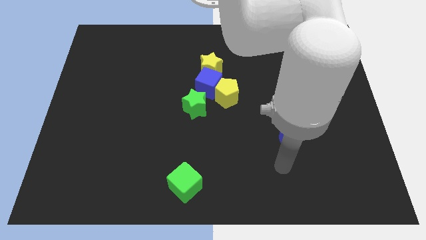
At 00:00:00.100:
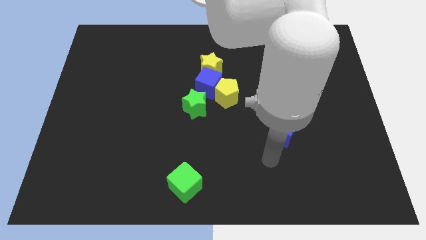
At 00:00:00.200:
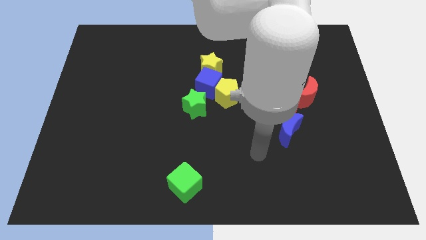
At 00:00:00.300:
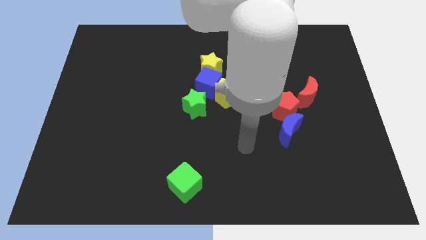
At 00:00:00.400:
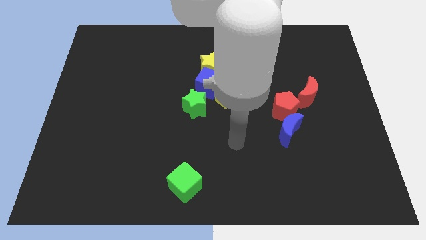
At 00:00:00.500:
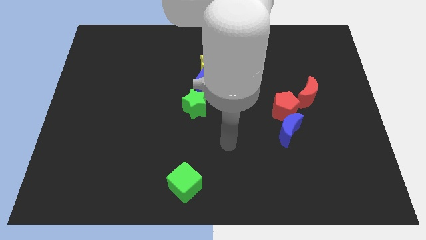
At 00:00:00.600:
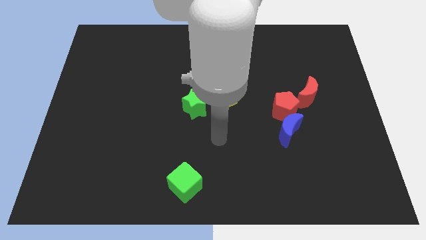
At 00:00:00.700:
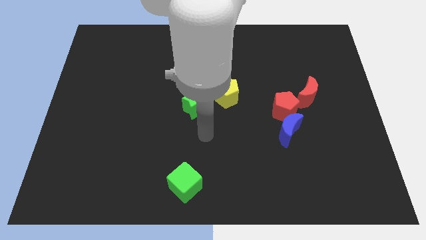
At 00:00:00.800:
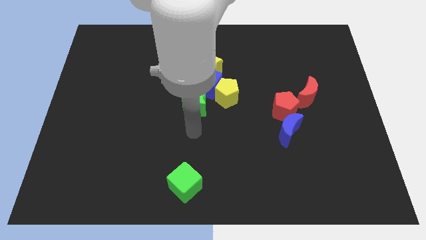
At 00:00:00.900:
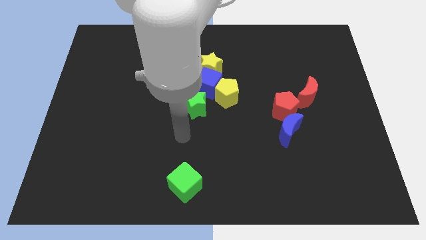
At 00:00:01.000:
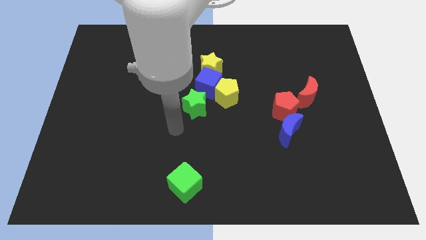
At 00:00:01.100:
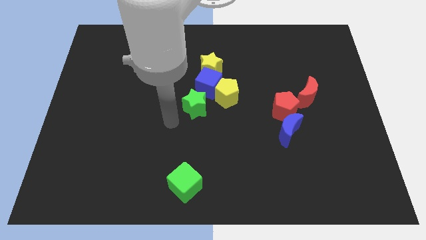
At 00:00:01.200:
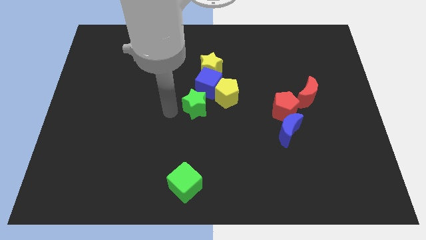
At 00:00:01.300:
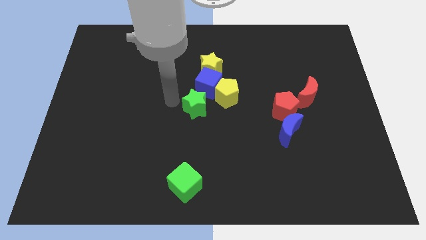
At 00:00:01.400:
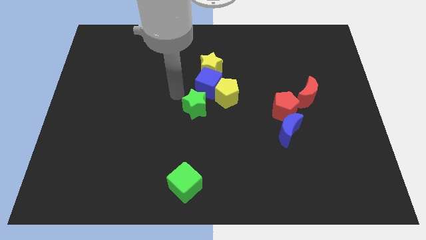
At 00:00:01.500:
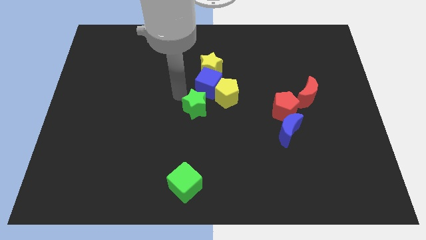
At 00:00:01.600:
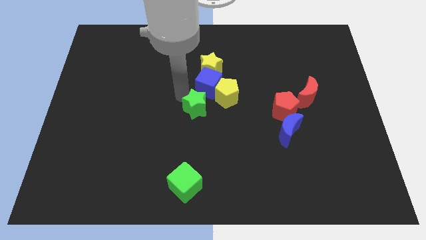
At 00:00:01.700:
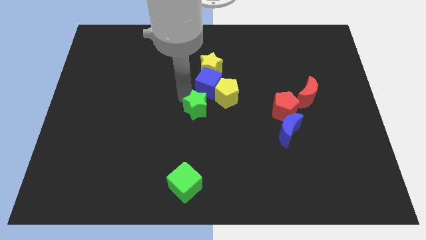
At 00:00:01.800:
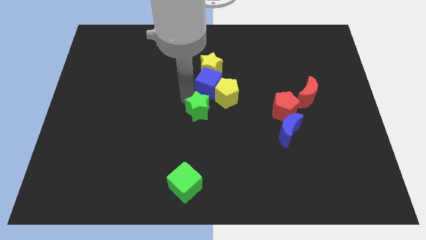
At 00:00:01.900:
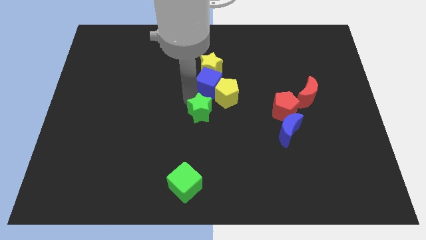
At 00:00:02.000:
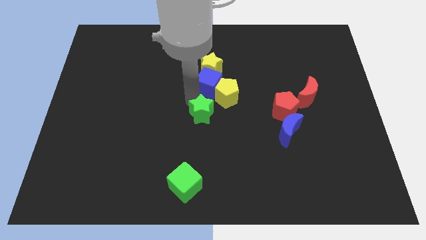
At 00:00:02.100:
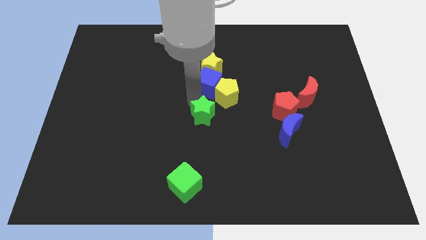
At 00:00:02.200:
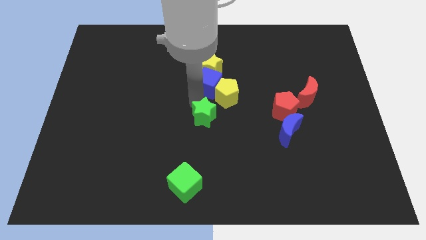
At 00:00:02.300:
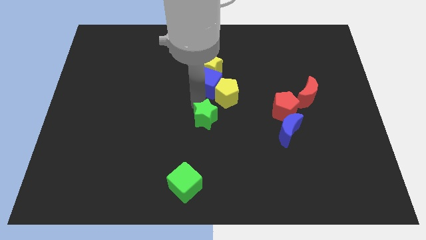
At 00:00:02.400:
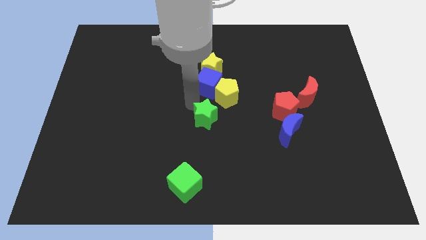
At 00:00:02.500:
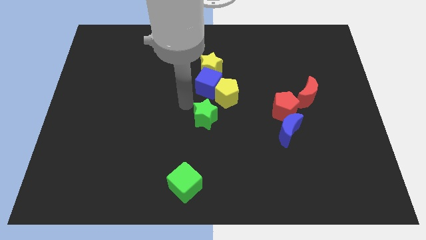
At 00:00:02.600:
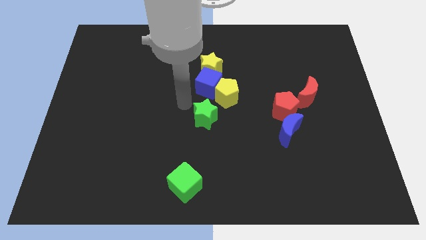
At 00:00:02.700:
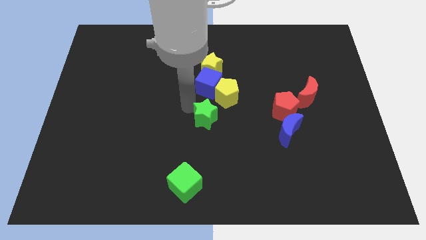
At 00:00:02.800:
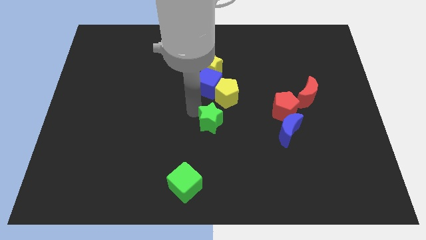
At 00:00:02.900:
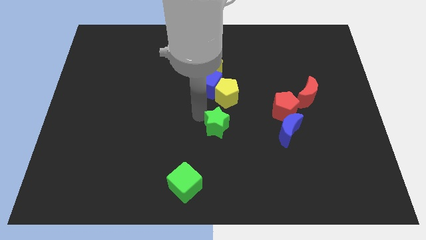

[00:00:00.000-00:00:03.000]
slightly move the green star down and right diagonally

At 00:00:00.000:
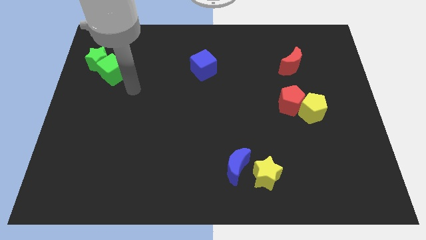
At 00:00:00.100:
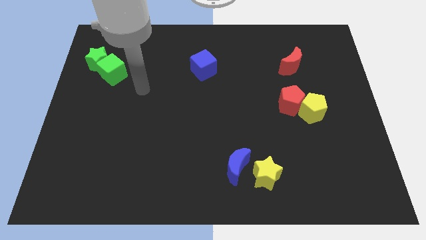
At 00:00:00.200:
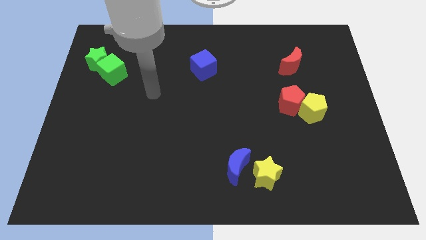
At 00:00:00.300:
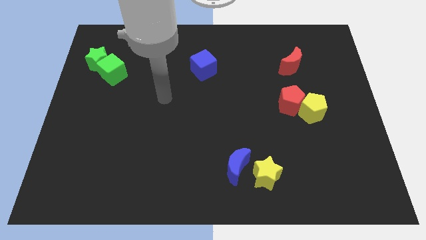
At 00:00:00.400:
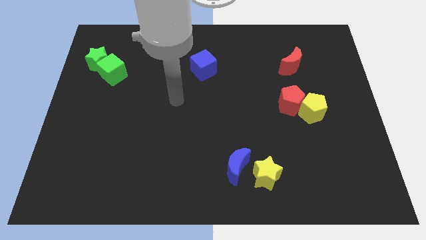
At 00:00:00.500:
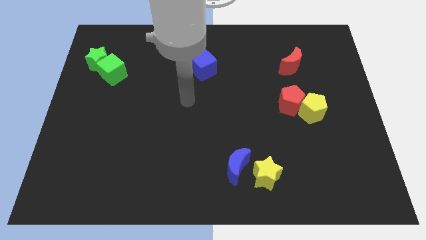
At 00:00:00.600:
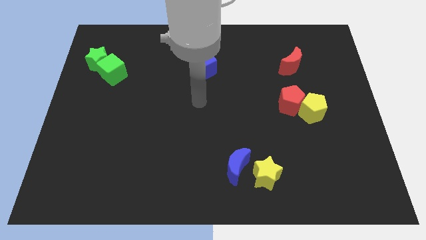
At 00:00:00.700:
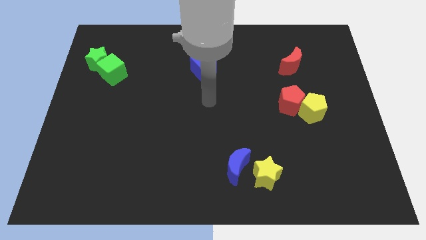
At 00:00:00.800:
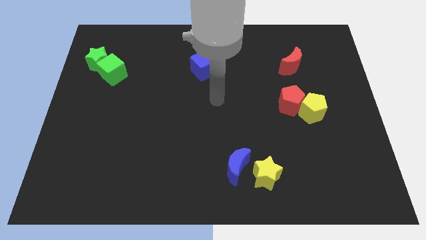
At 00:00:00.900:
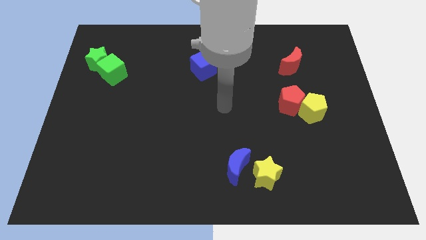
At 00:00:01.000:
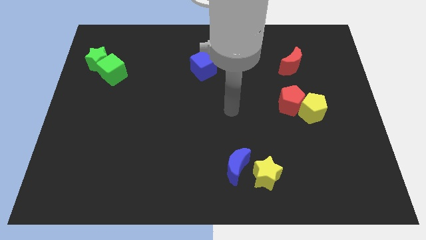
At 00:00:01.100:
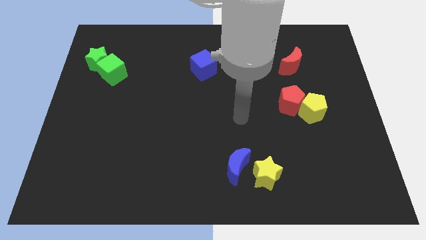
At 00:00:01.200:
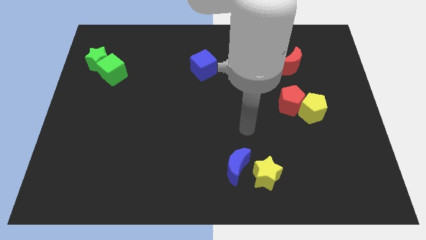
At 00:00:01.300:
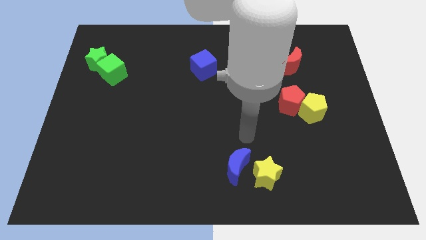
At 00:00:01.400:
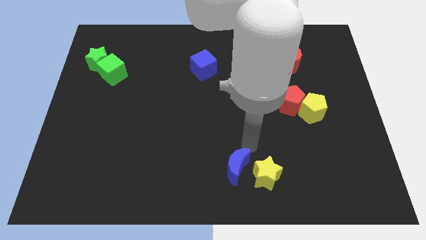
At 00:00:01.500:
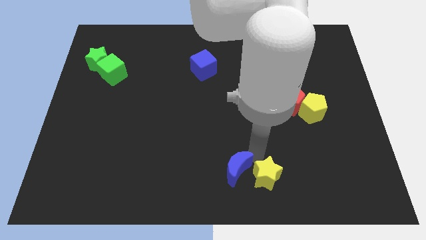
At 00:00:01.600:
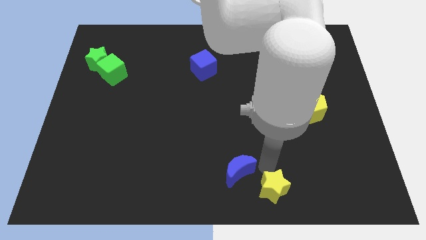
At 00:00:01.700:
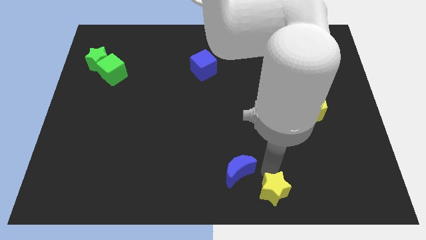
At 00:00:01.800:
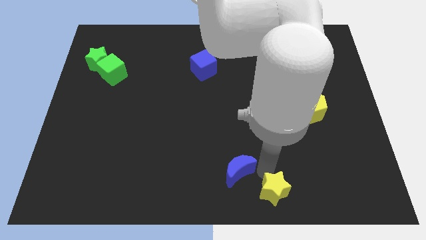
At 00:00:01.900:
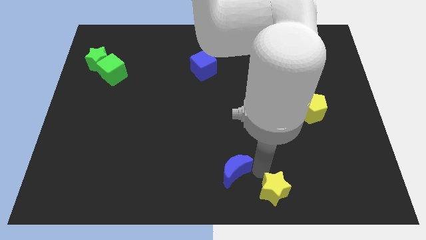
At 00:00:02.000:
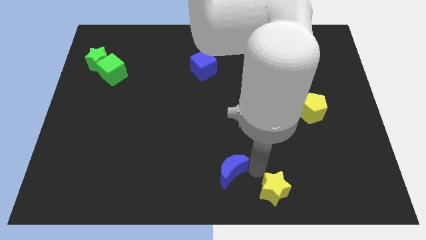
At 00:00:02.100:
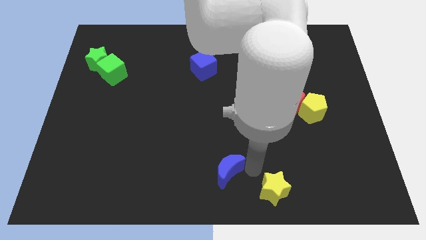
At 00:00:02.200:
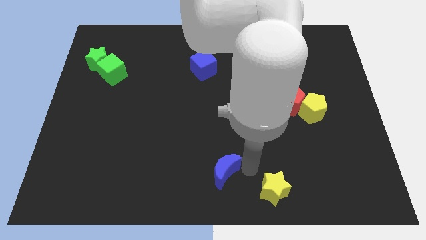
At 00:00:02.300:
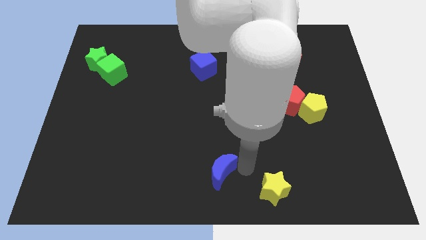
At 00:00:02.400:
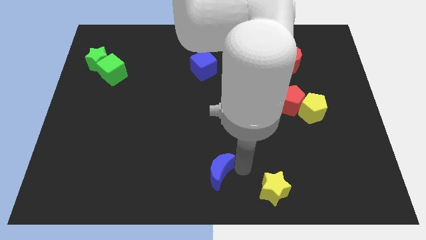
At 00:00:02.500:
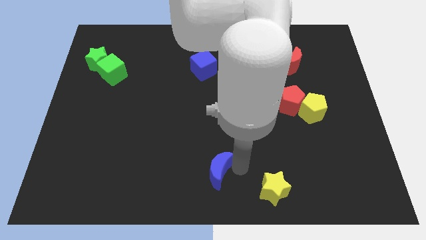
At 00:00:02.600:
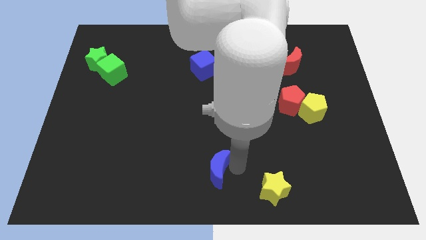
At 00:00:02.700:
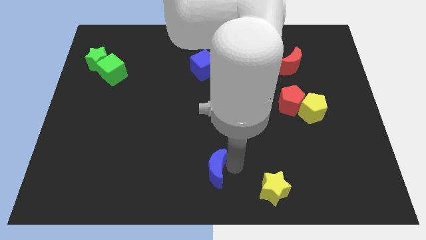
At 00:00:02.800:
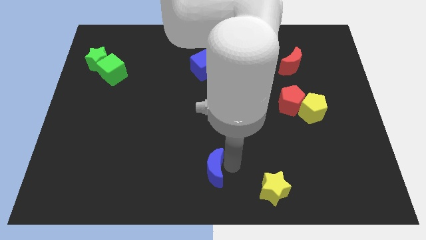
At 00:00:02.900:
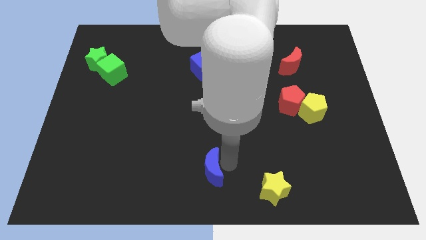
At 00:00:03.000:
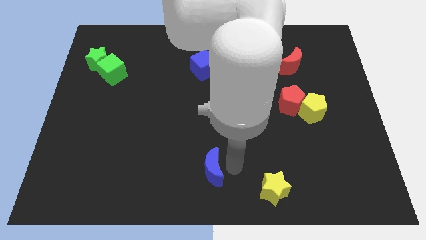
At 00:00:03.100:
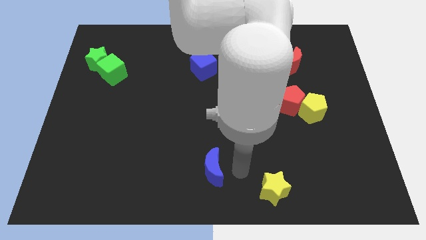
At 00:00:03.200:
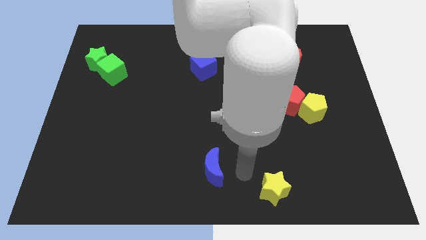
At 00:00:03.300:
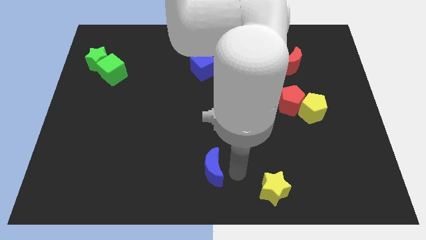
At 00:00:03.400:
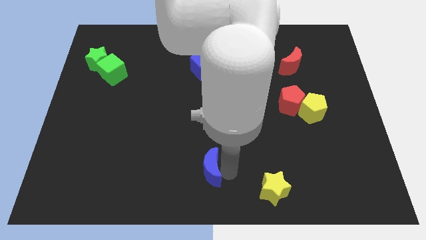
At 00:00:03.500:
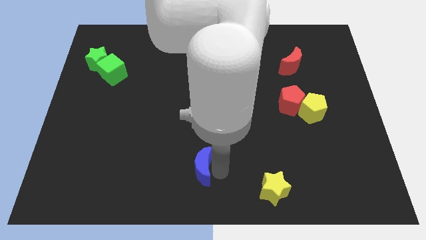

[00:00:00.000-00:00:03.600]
slide the blue moon somewhat to the left

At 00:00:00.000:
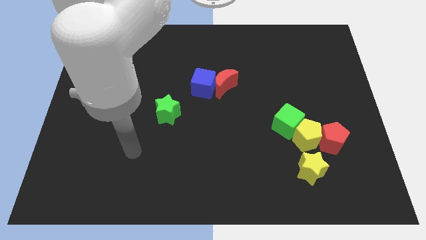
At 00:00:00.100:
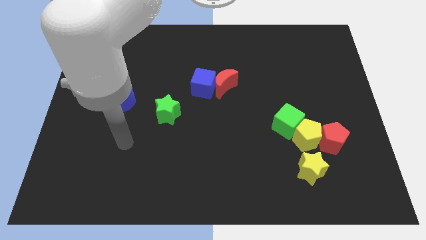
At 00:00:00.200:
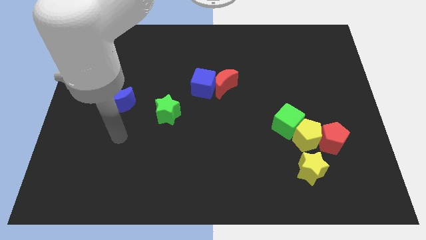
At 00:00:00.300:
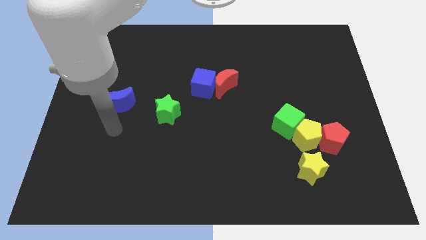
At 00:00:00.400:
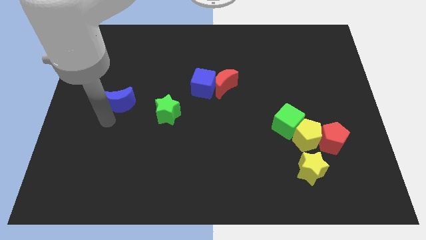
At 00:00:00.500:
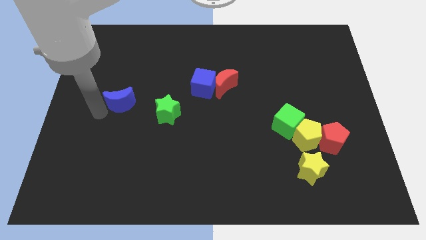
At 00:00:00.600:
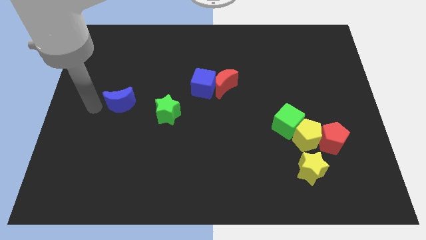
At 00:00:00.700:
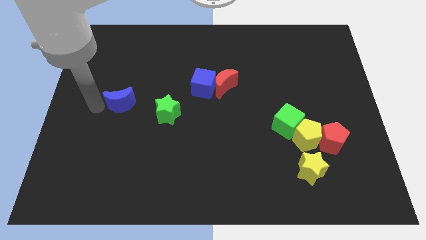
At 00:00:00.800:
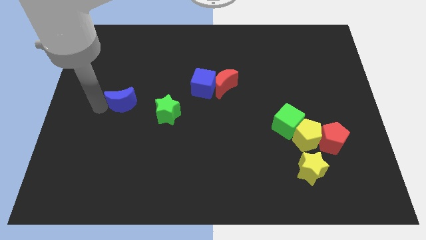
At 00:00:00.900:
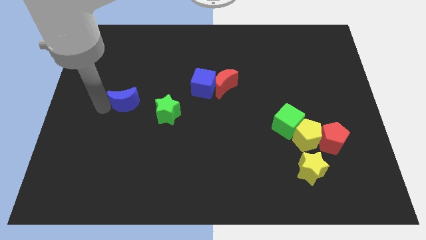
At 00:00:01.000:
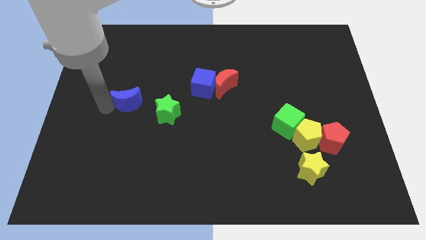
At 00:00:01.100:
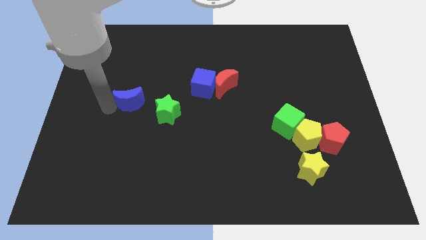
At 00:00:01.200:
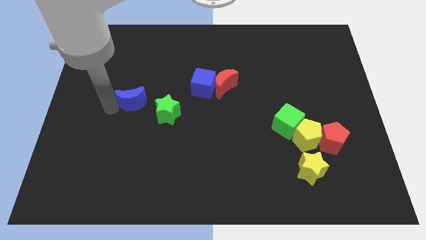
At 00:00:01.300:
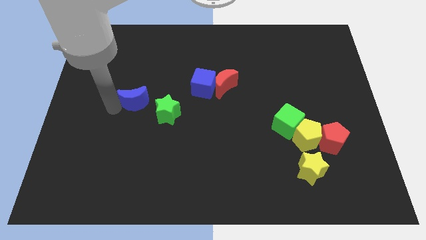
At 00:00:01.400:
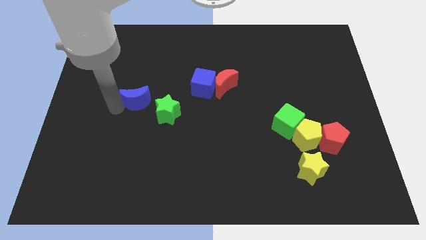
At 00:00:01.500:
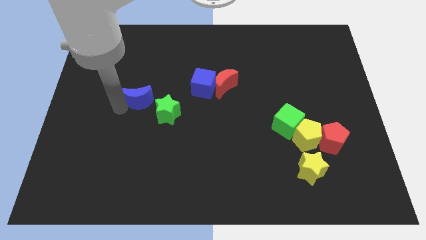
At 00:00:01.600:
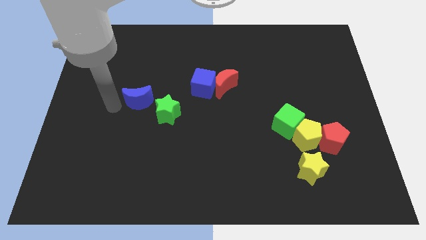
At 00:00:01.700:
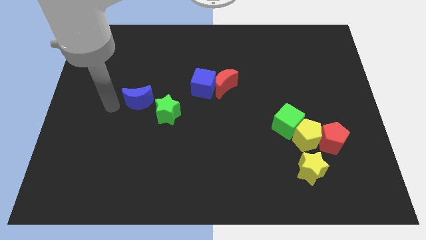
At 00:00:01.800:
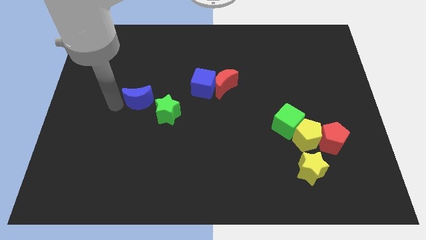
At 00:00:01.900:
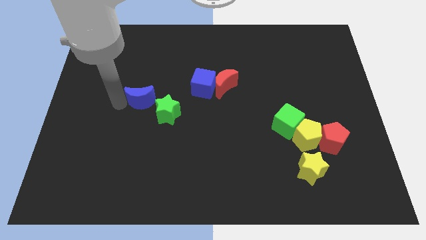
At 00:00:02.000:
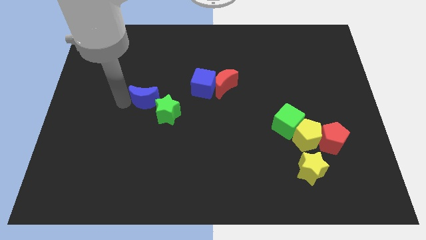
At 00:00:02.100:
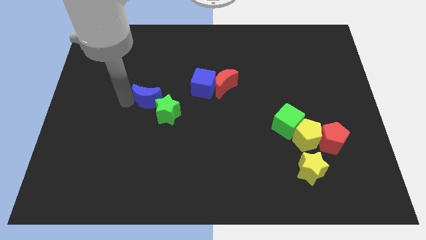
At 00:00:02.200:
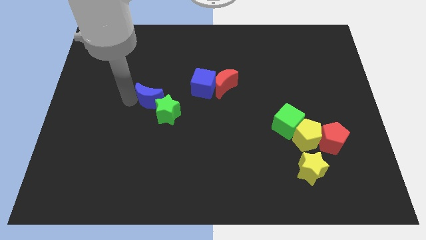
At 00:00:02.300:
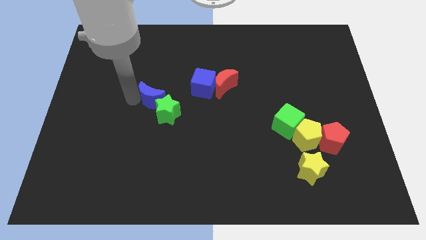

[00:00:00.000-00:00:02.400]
push the blue moon to the right a little
